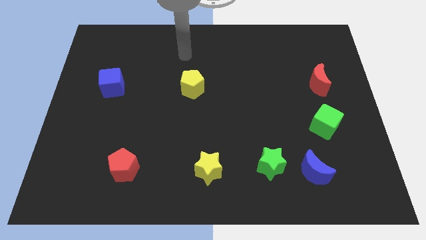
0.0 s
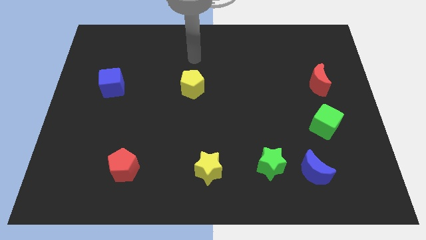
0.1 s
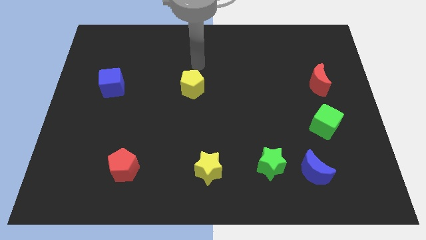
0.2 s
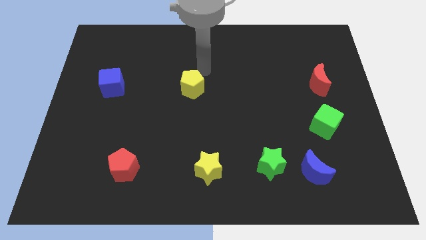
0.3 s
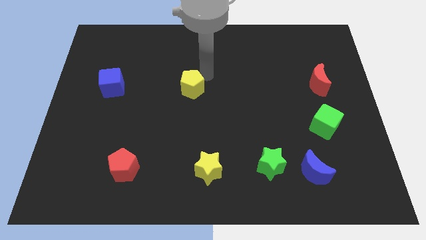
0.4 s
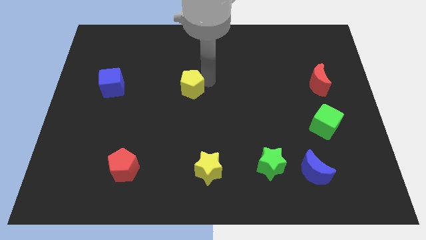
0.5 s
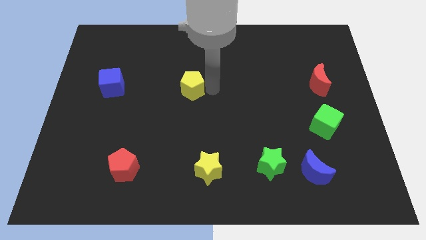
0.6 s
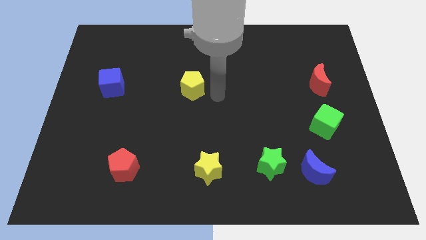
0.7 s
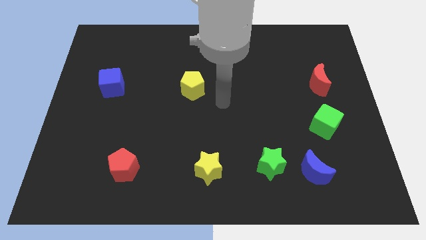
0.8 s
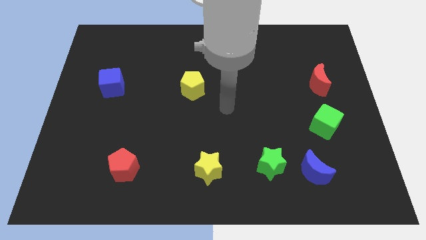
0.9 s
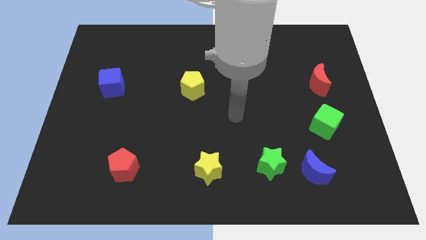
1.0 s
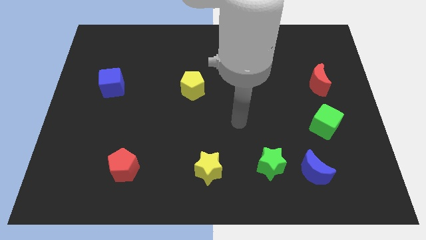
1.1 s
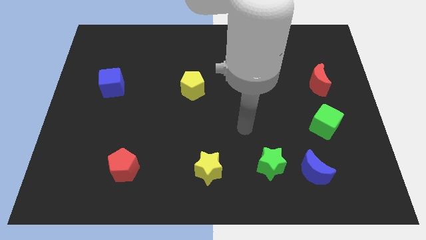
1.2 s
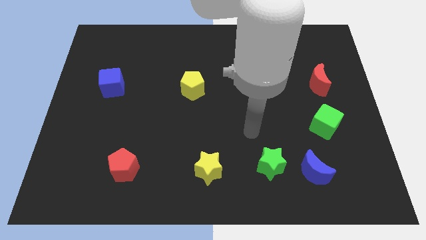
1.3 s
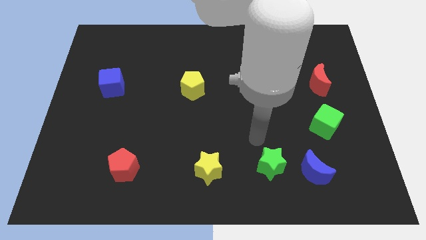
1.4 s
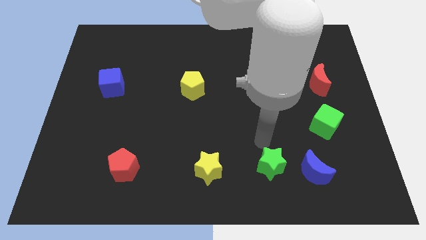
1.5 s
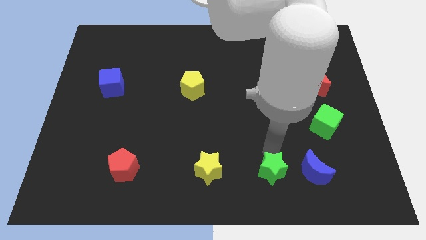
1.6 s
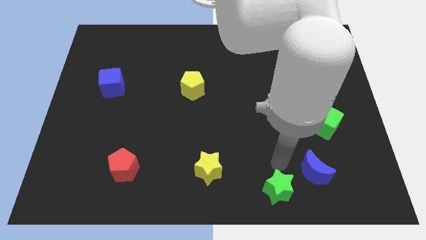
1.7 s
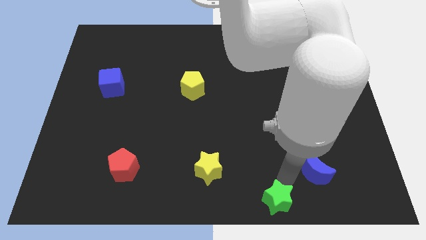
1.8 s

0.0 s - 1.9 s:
separate the blue moon from the green star

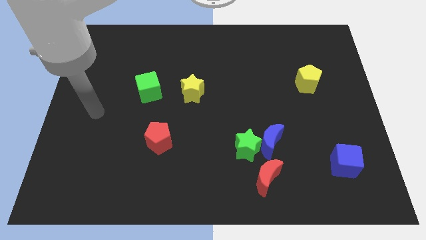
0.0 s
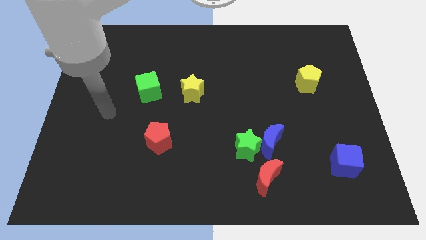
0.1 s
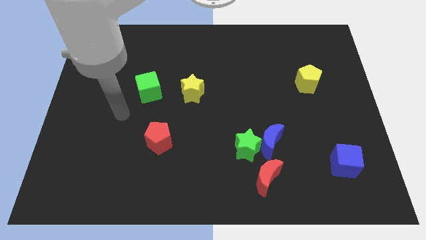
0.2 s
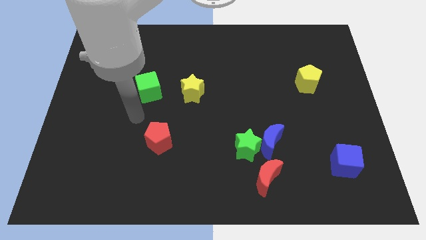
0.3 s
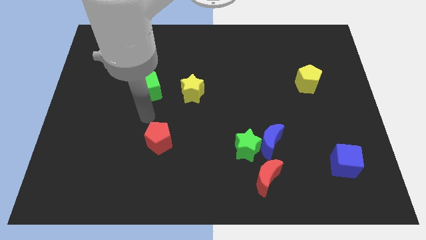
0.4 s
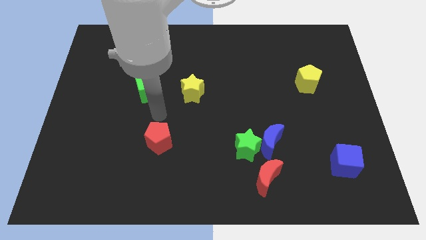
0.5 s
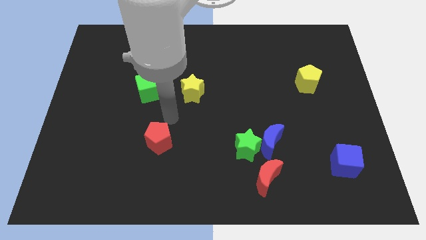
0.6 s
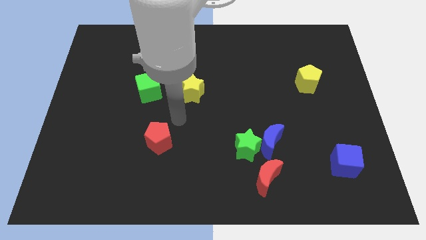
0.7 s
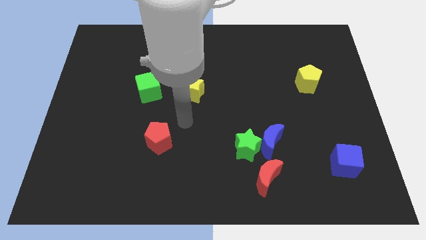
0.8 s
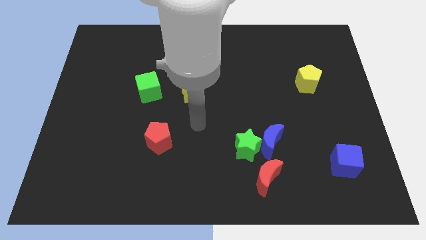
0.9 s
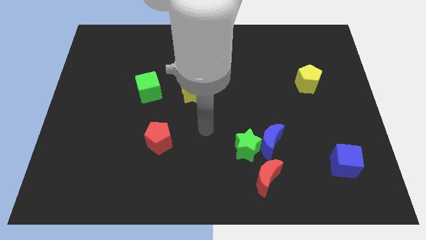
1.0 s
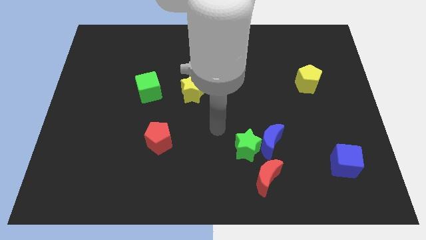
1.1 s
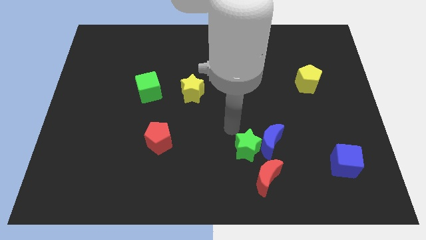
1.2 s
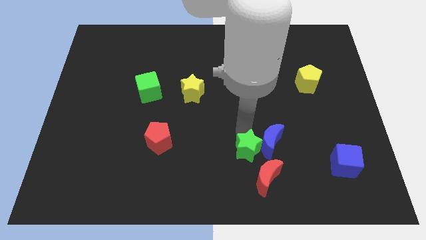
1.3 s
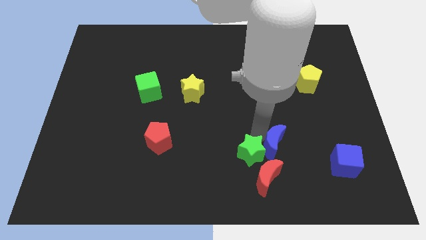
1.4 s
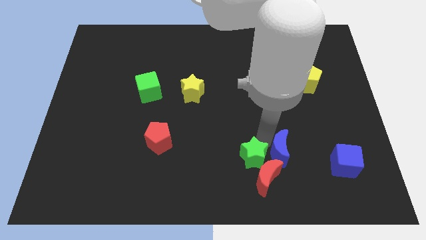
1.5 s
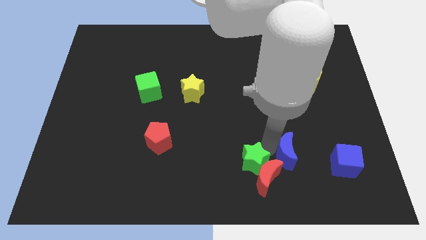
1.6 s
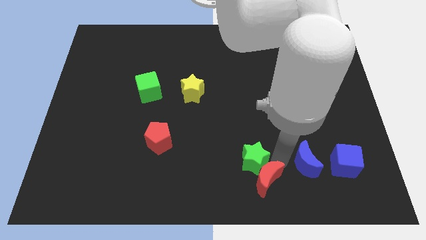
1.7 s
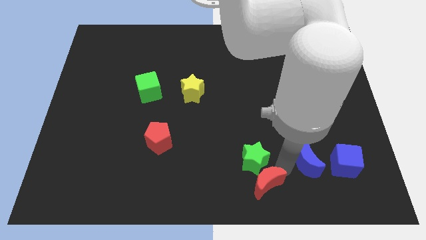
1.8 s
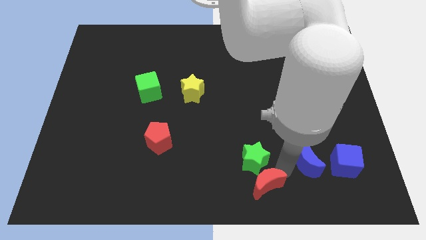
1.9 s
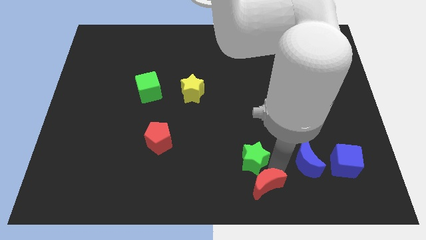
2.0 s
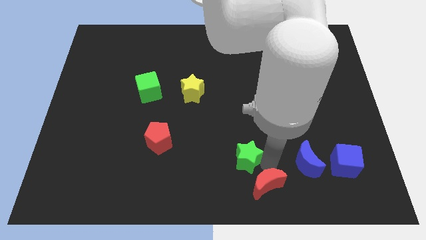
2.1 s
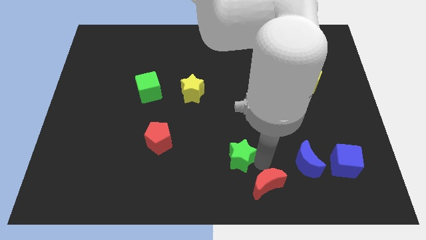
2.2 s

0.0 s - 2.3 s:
separate the green star from the blue moon and red moon

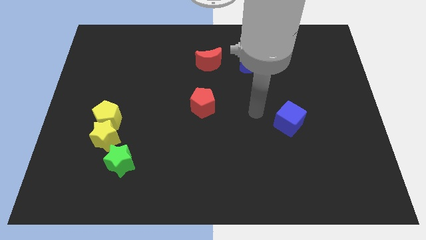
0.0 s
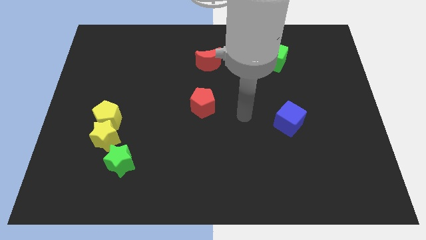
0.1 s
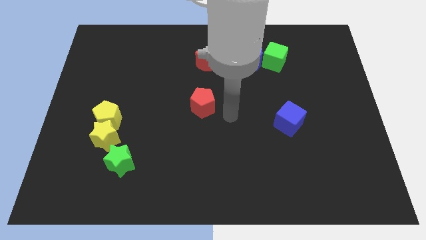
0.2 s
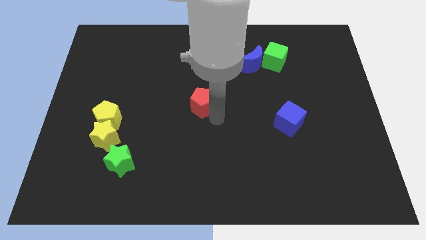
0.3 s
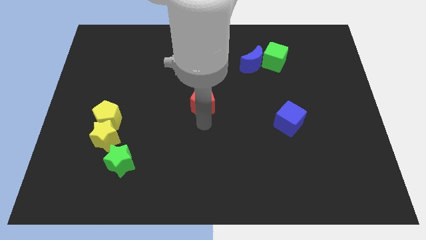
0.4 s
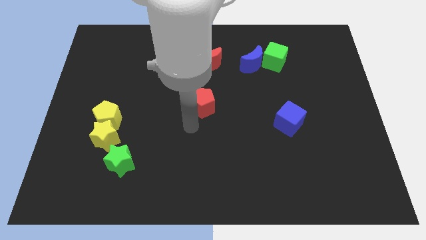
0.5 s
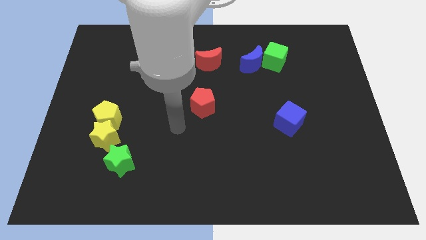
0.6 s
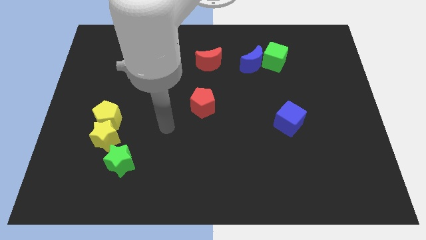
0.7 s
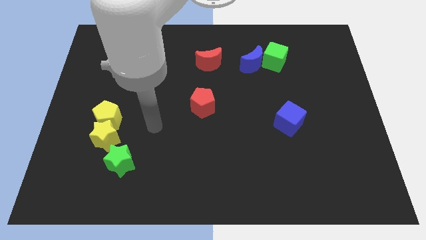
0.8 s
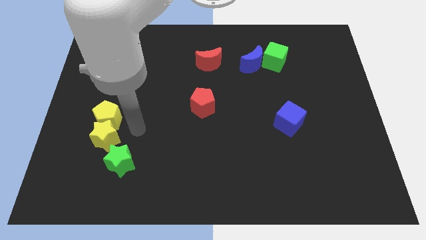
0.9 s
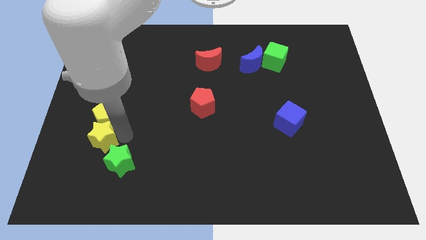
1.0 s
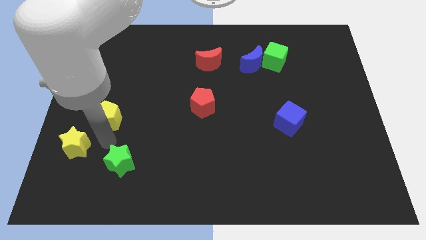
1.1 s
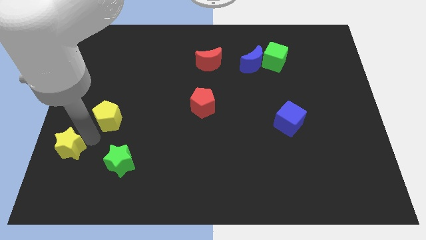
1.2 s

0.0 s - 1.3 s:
pull the yellow pentagon apart from the yellow star

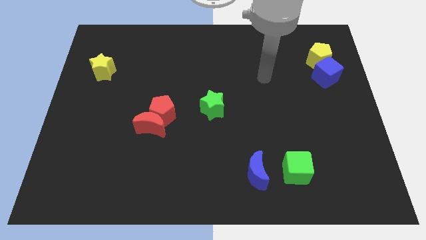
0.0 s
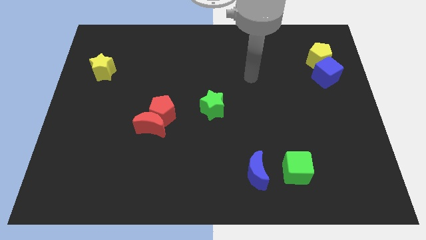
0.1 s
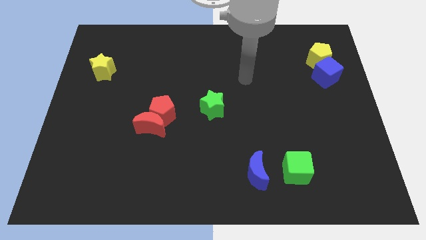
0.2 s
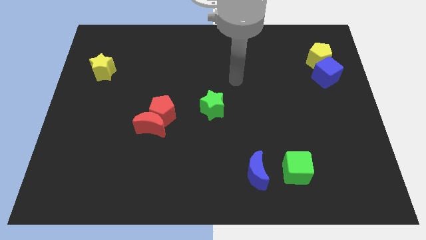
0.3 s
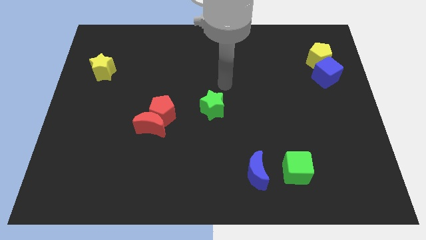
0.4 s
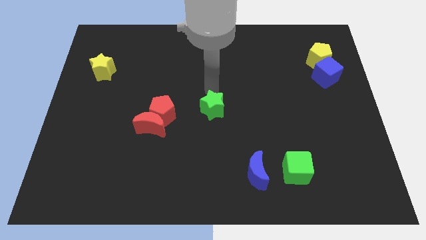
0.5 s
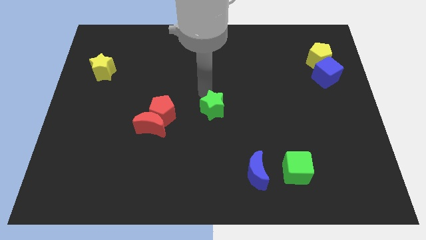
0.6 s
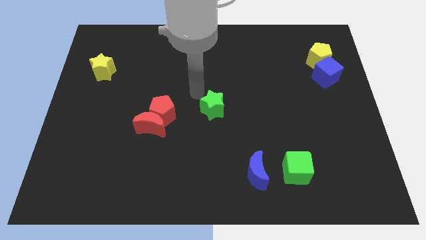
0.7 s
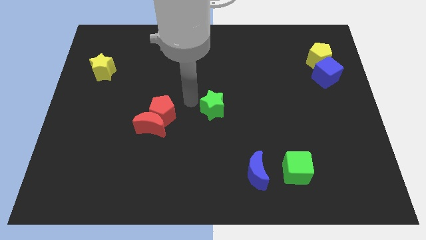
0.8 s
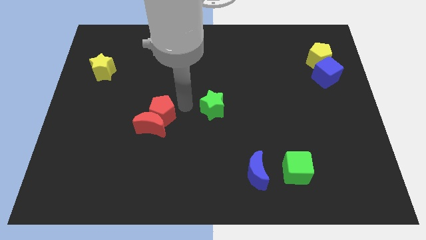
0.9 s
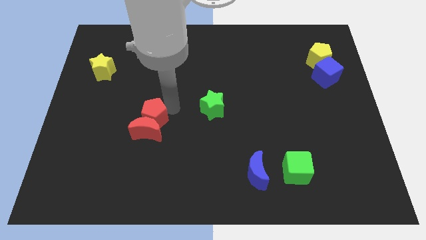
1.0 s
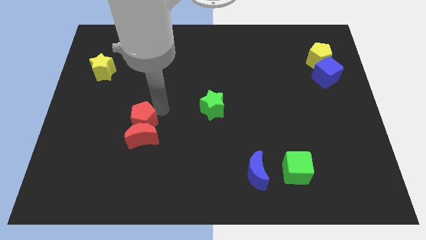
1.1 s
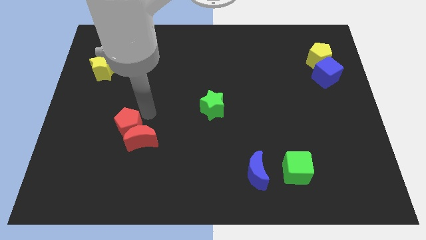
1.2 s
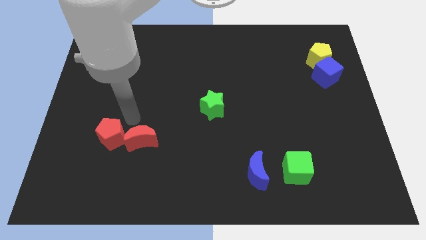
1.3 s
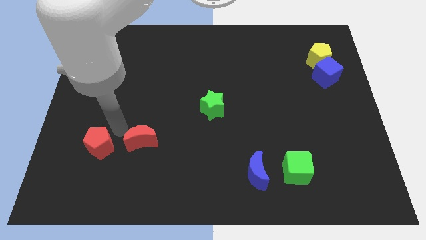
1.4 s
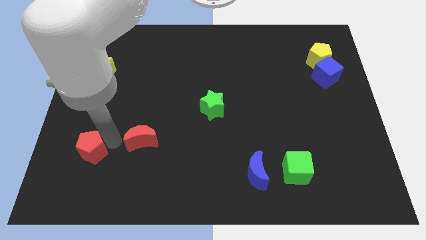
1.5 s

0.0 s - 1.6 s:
move the red moon away from the red pentagon

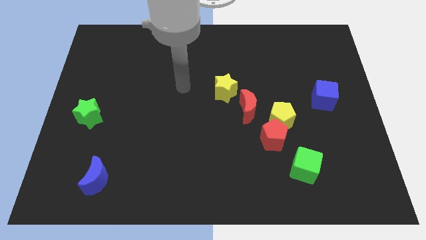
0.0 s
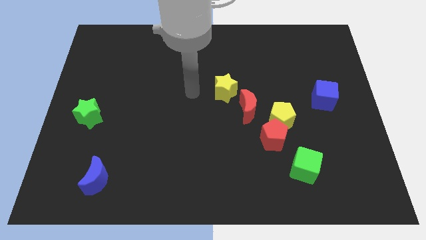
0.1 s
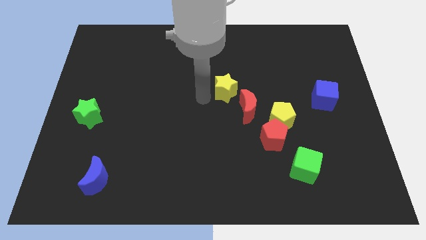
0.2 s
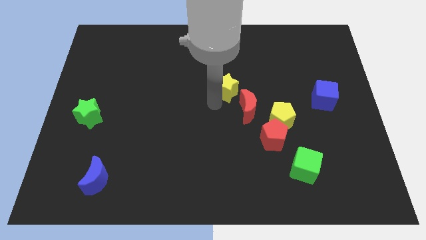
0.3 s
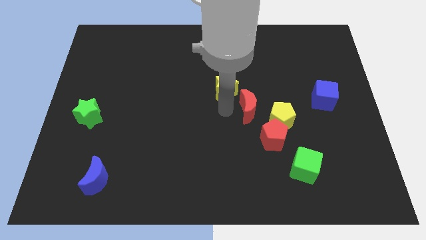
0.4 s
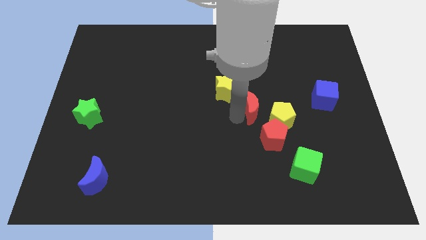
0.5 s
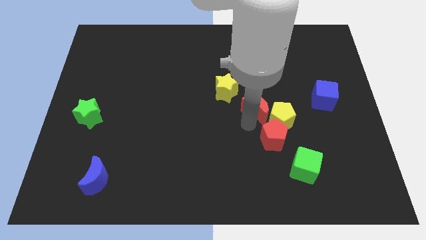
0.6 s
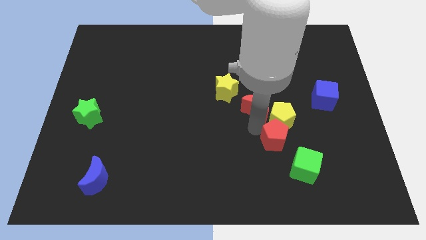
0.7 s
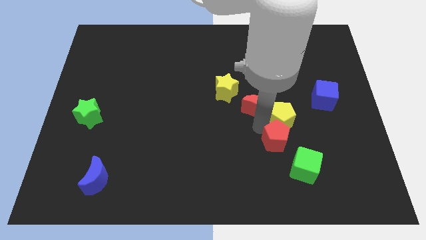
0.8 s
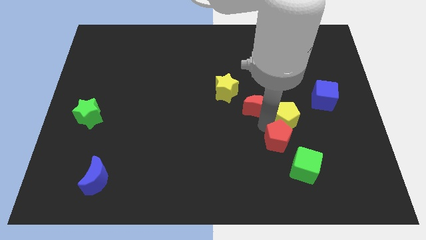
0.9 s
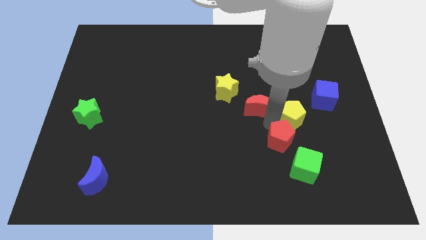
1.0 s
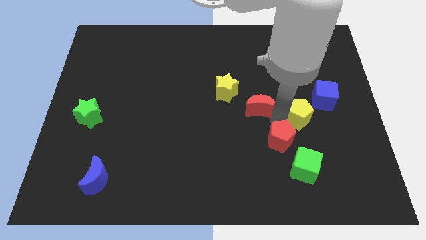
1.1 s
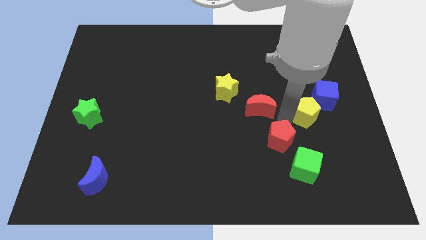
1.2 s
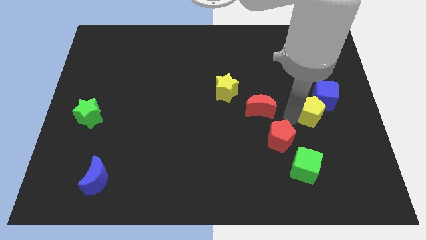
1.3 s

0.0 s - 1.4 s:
move the yellow pentagon away from the red pentagon and red moon

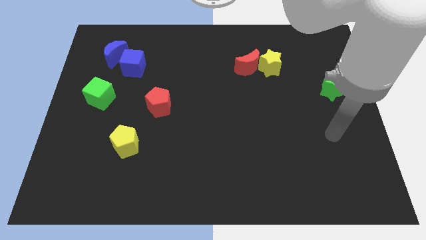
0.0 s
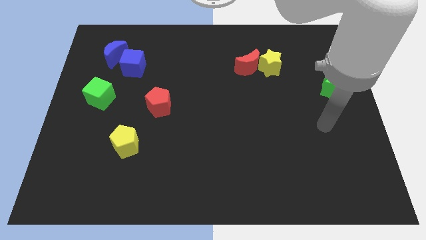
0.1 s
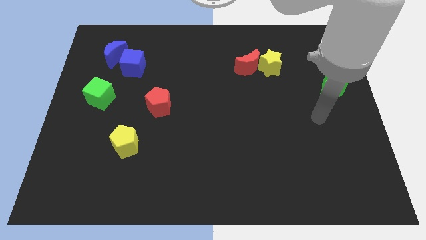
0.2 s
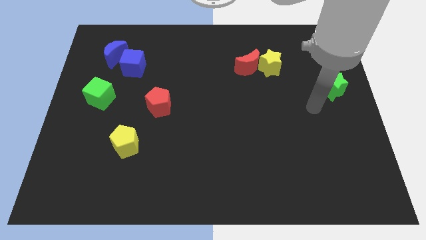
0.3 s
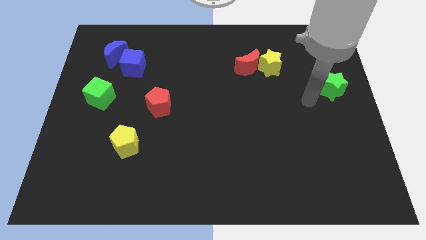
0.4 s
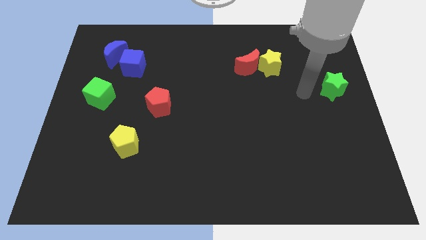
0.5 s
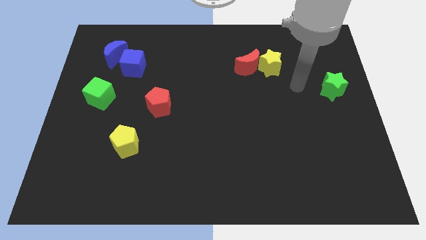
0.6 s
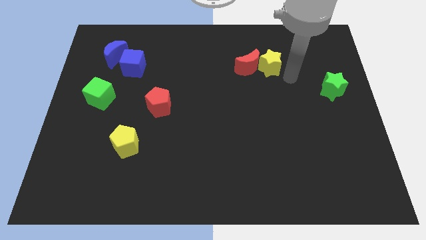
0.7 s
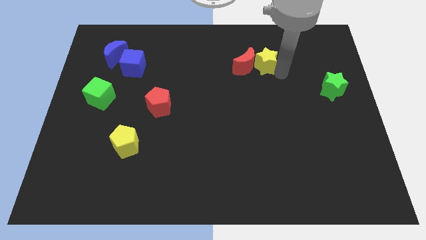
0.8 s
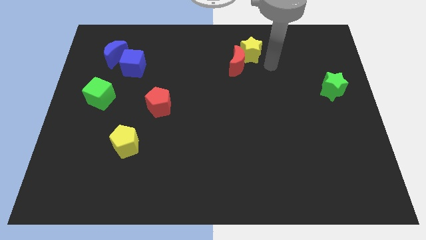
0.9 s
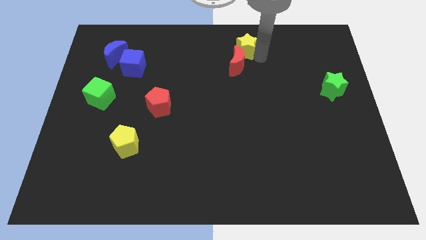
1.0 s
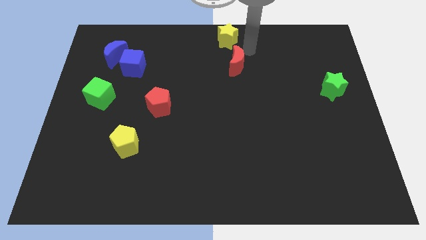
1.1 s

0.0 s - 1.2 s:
separate the red moon from the yellow star
